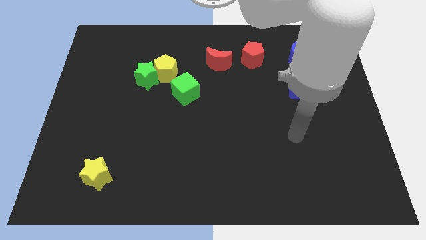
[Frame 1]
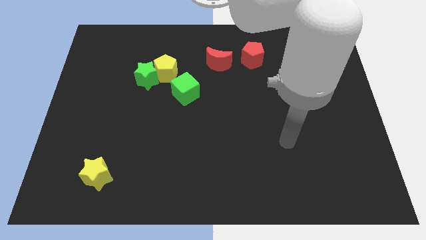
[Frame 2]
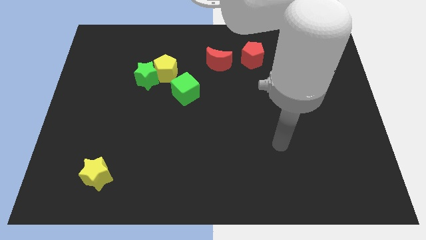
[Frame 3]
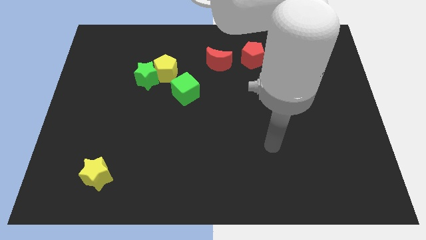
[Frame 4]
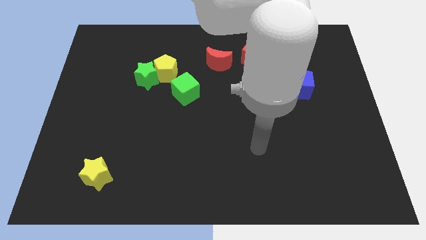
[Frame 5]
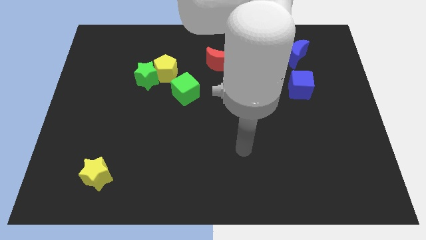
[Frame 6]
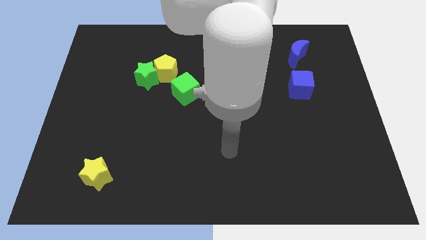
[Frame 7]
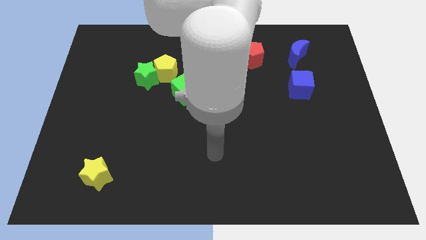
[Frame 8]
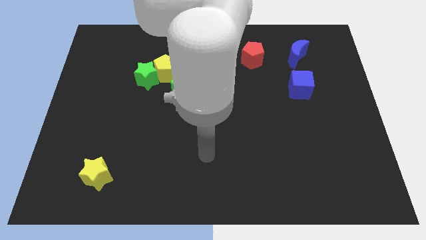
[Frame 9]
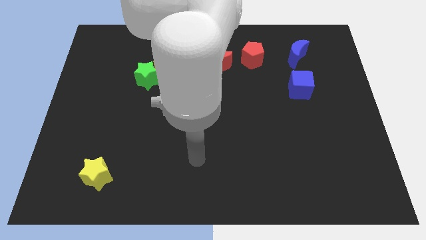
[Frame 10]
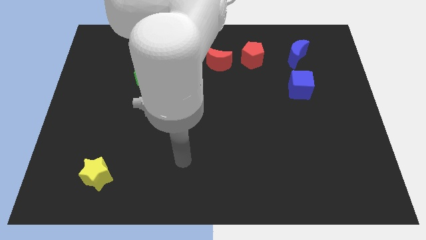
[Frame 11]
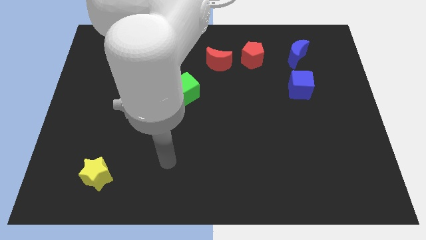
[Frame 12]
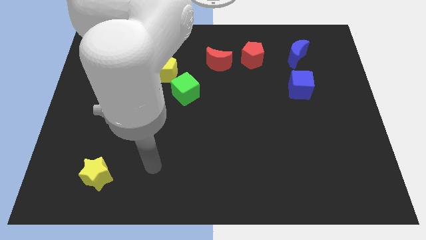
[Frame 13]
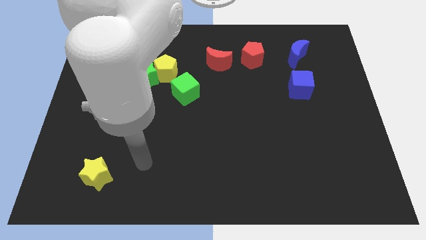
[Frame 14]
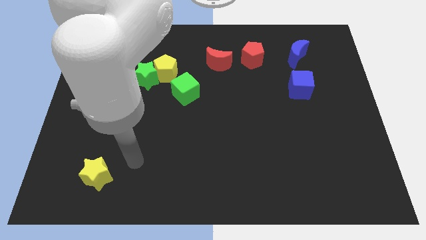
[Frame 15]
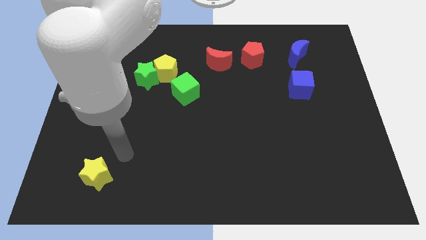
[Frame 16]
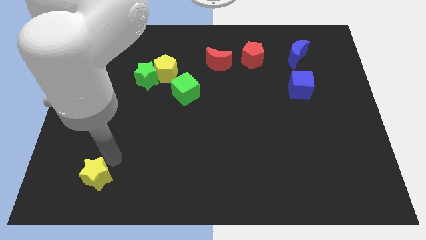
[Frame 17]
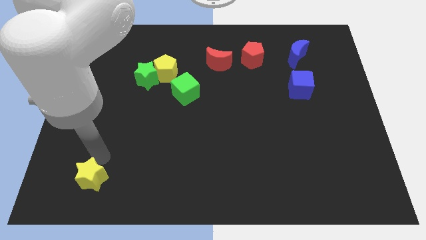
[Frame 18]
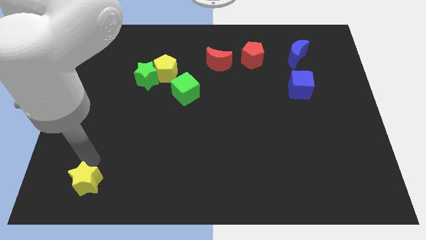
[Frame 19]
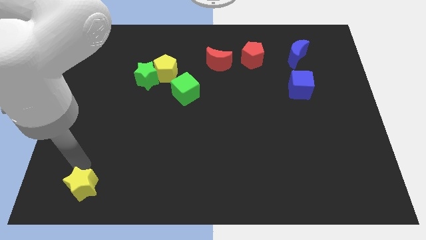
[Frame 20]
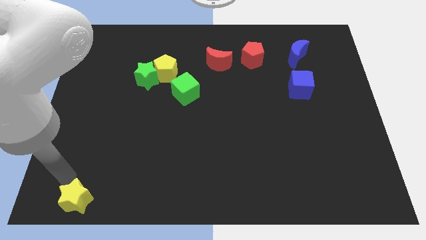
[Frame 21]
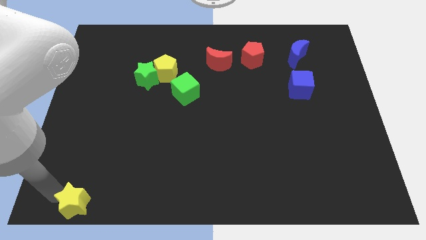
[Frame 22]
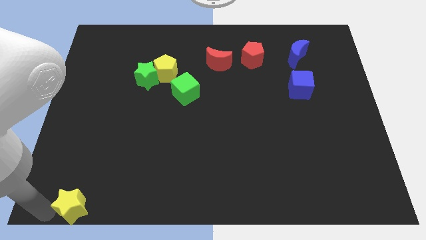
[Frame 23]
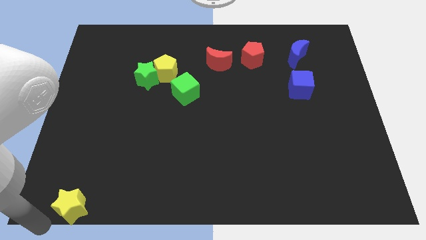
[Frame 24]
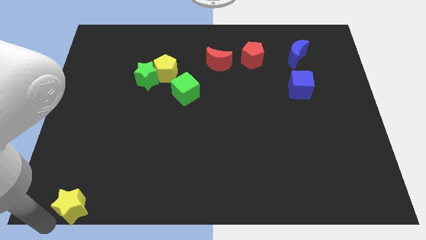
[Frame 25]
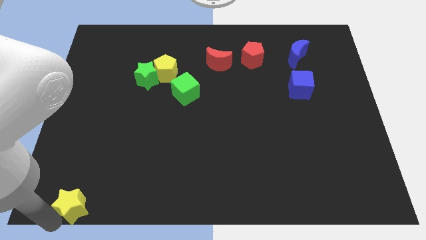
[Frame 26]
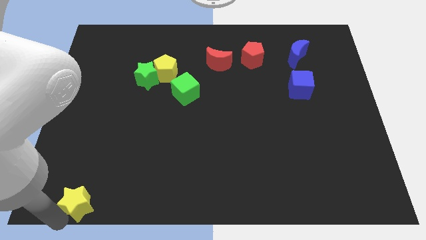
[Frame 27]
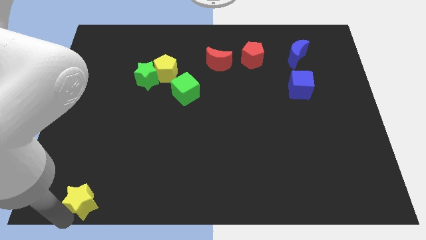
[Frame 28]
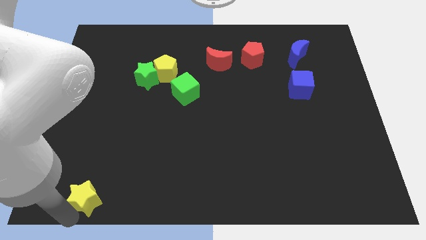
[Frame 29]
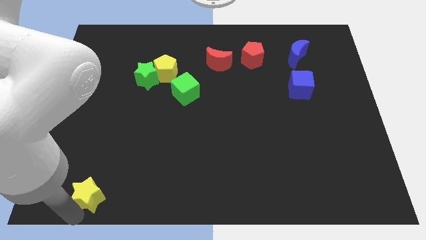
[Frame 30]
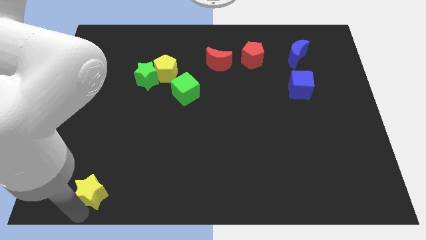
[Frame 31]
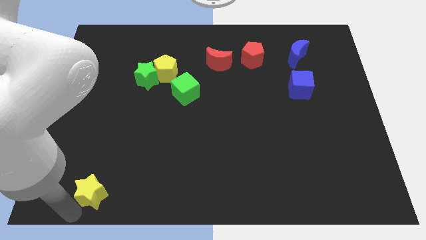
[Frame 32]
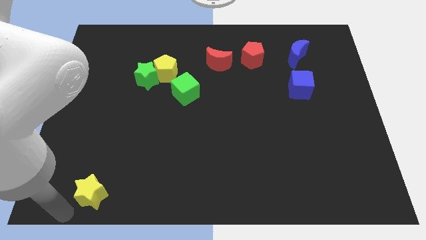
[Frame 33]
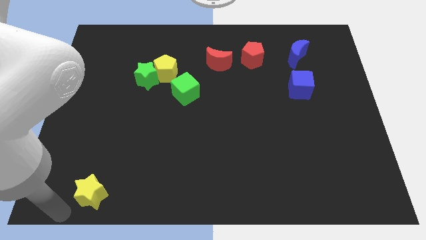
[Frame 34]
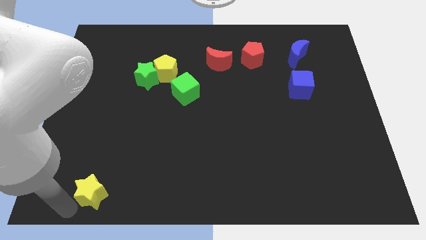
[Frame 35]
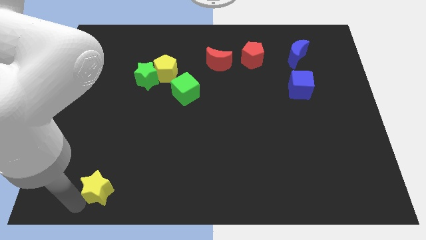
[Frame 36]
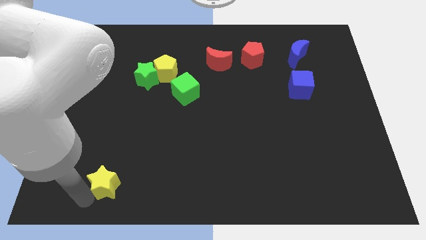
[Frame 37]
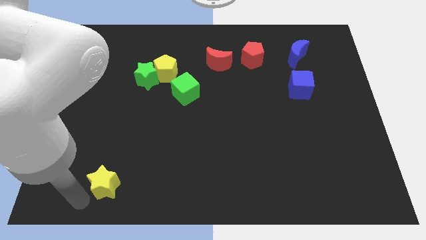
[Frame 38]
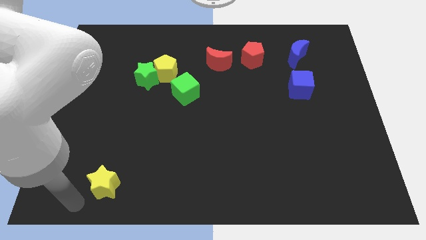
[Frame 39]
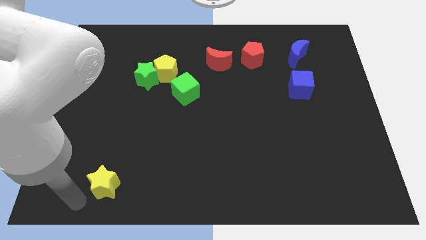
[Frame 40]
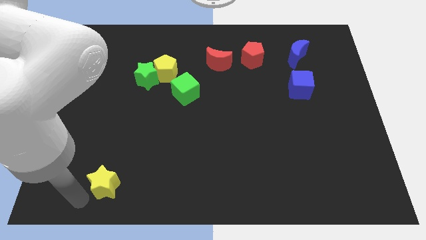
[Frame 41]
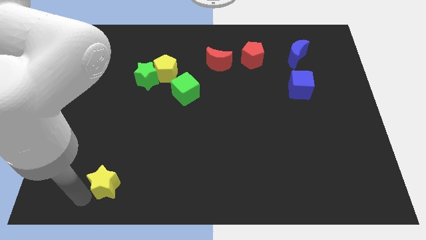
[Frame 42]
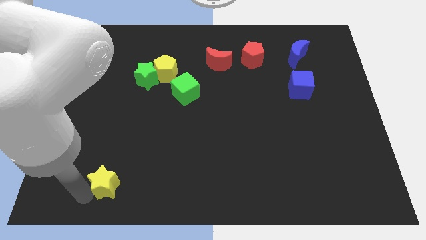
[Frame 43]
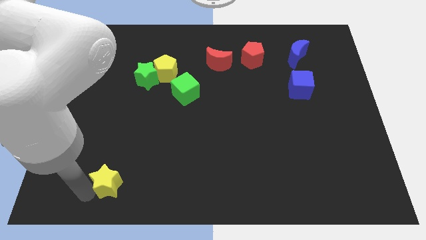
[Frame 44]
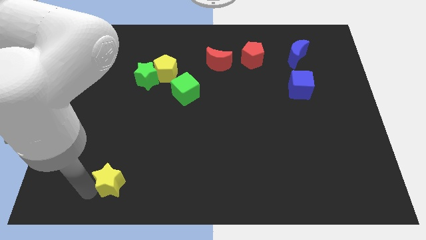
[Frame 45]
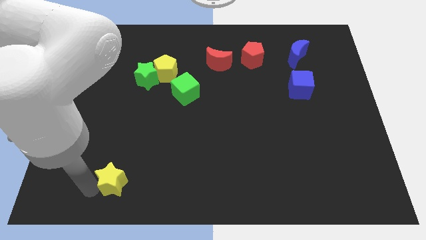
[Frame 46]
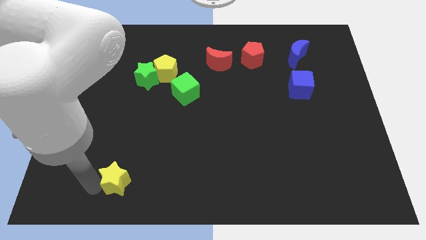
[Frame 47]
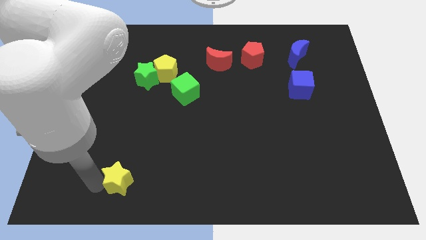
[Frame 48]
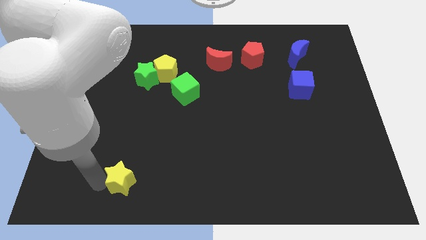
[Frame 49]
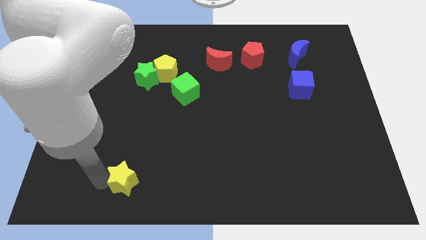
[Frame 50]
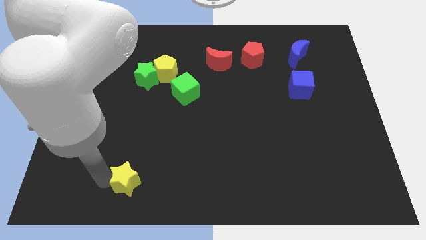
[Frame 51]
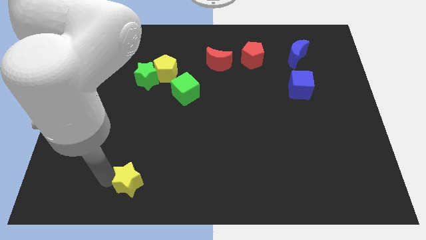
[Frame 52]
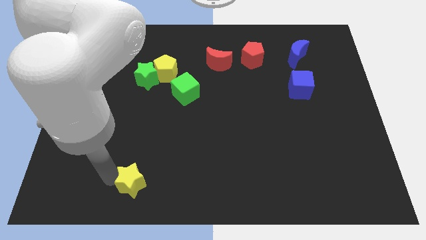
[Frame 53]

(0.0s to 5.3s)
slightly slide the yellow star right

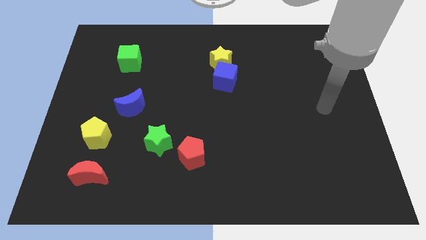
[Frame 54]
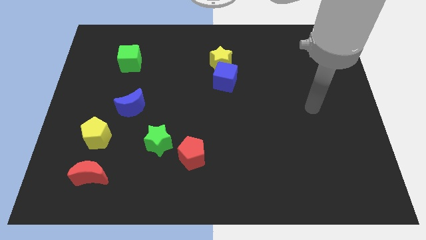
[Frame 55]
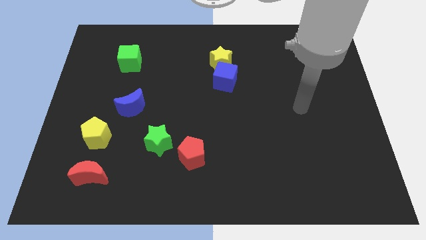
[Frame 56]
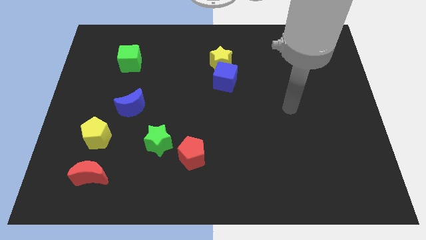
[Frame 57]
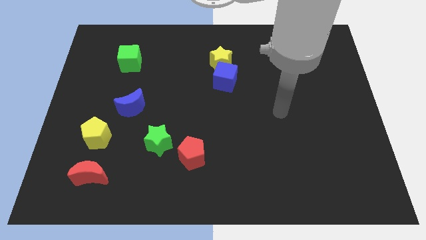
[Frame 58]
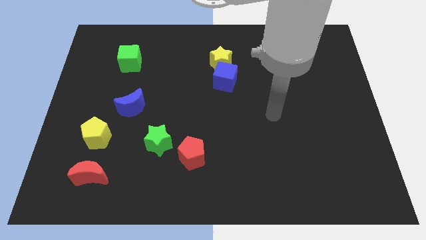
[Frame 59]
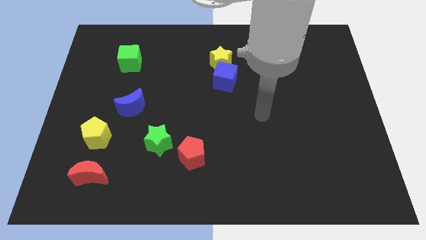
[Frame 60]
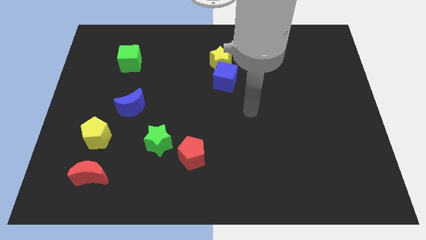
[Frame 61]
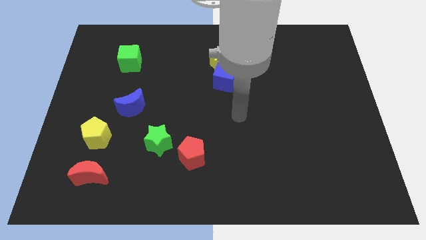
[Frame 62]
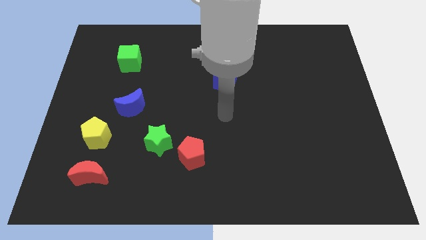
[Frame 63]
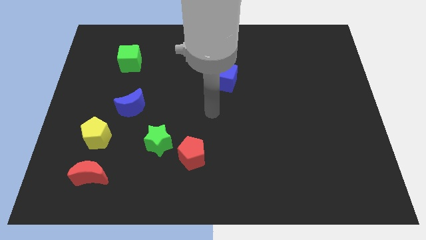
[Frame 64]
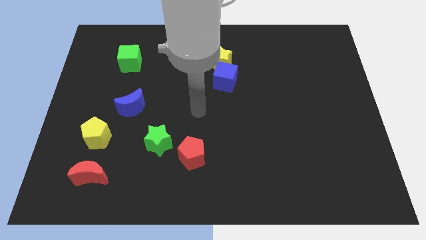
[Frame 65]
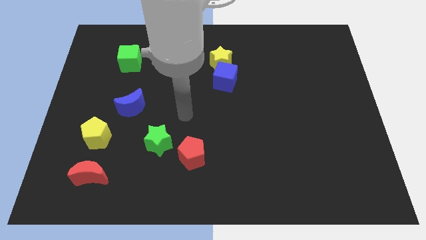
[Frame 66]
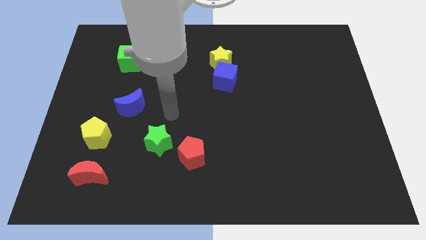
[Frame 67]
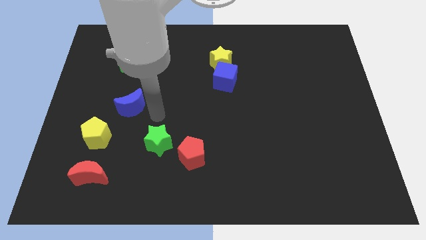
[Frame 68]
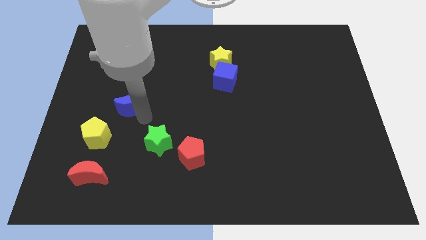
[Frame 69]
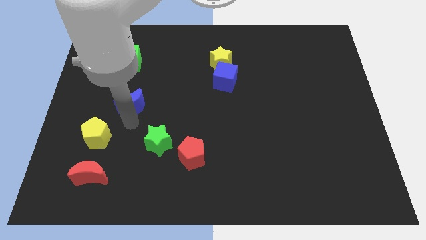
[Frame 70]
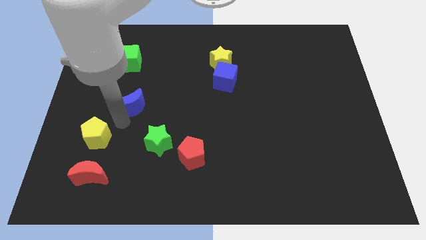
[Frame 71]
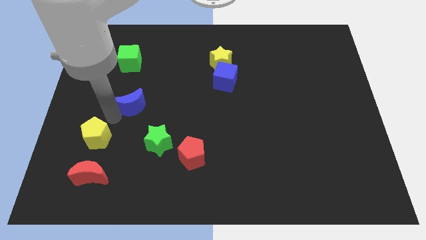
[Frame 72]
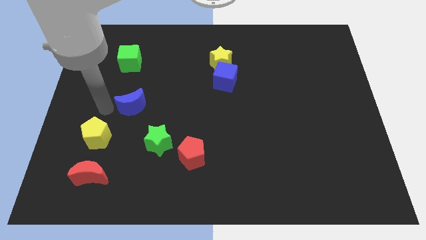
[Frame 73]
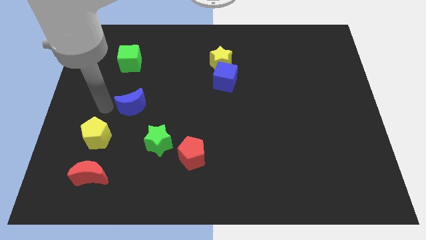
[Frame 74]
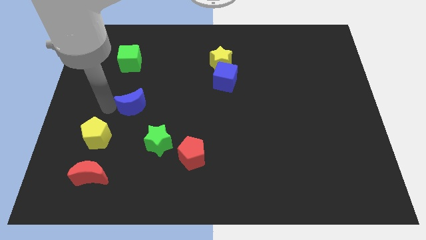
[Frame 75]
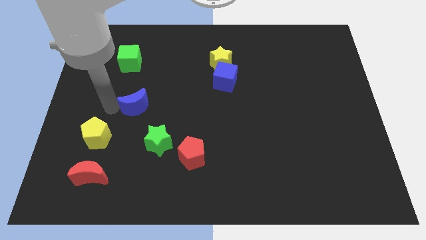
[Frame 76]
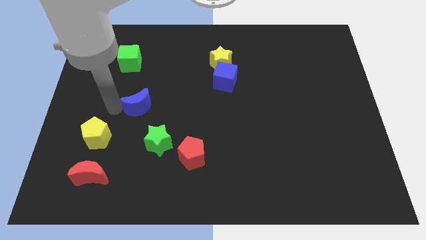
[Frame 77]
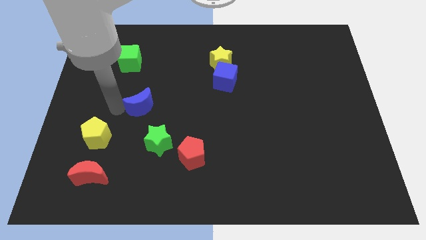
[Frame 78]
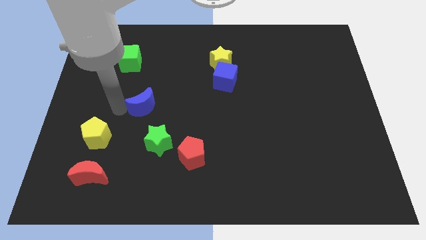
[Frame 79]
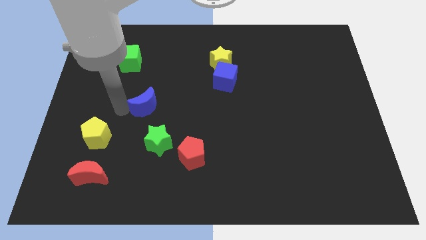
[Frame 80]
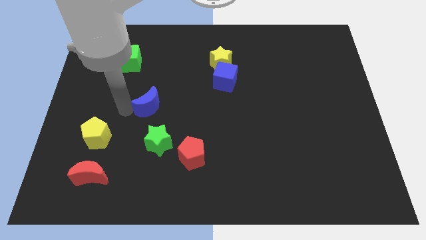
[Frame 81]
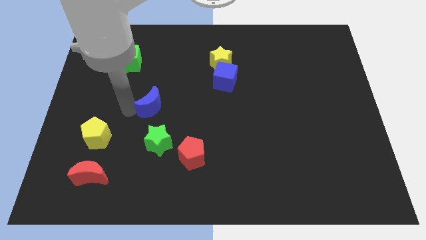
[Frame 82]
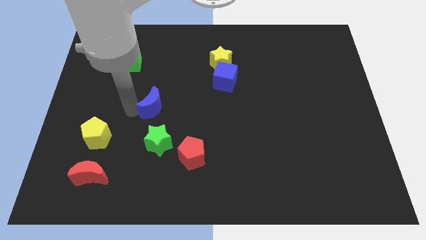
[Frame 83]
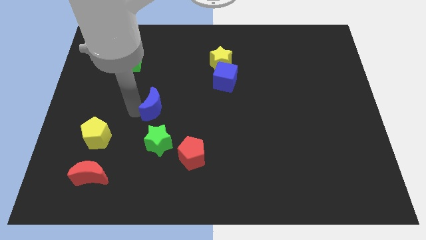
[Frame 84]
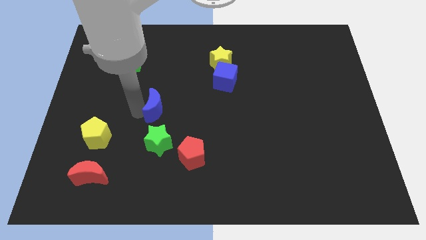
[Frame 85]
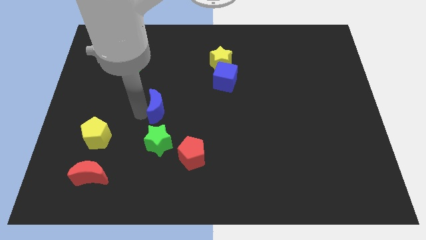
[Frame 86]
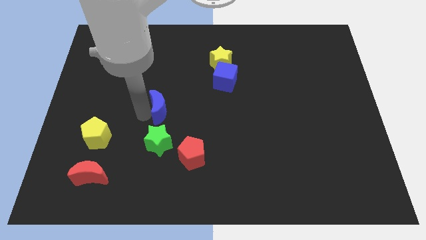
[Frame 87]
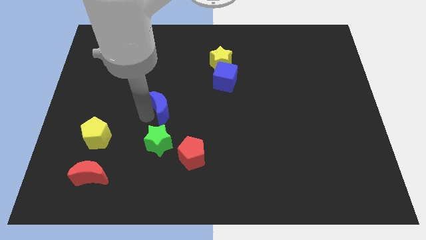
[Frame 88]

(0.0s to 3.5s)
slide the blue moon right somewhat
